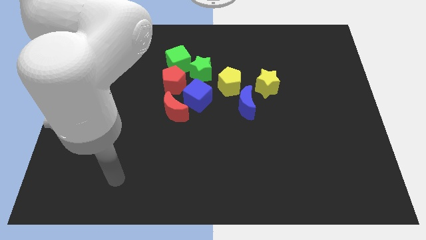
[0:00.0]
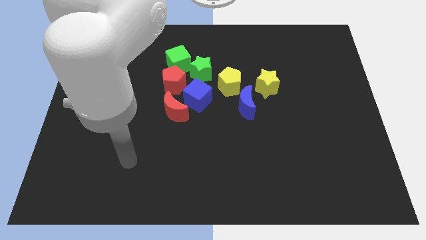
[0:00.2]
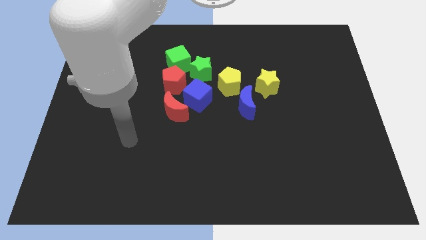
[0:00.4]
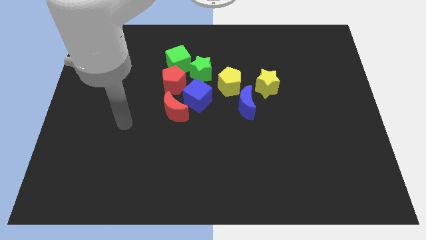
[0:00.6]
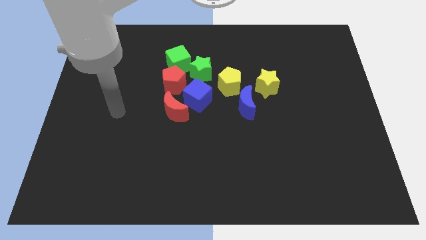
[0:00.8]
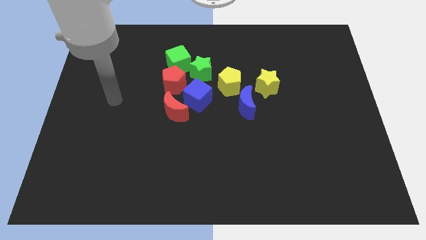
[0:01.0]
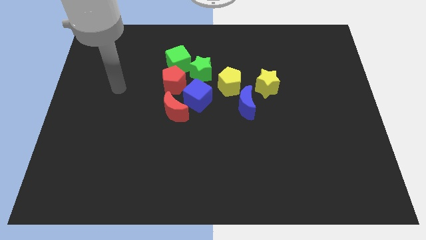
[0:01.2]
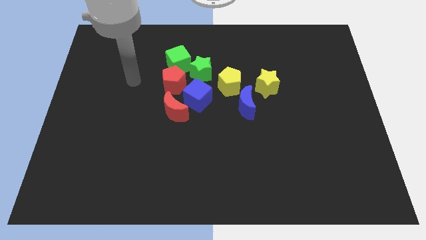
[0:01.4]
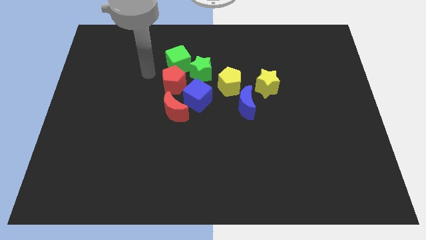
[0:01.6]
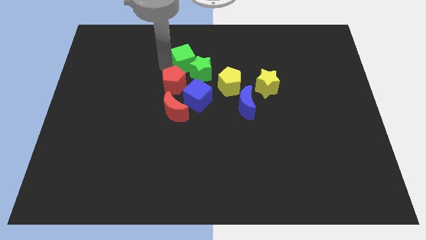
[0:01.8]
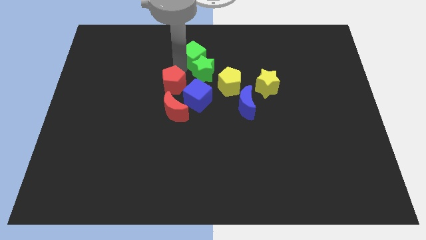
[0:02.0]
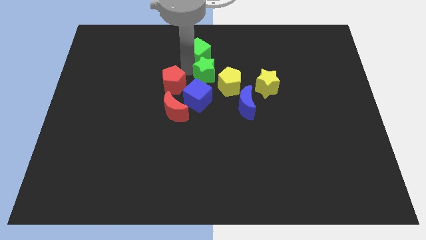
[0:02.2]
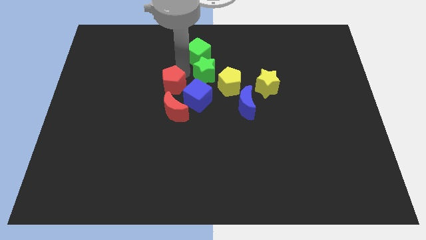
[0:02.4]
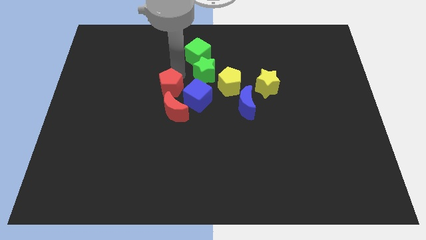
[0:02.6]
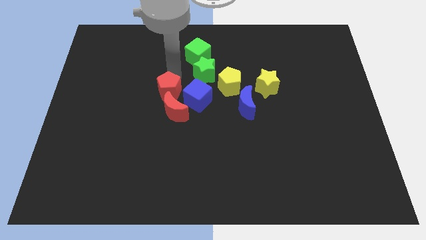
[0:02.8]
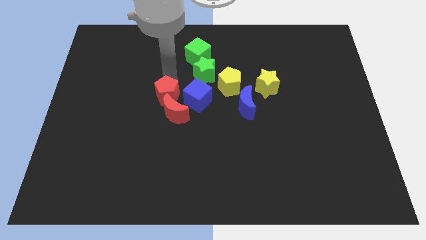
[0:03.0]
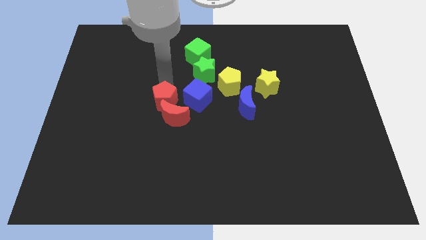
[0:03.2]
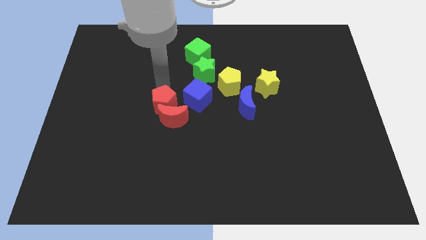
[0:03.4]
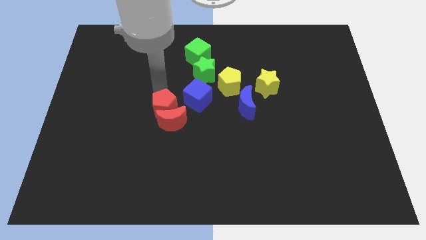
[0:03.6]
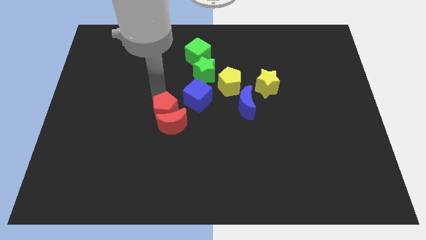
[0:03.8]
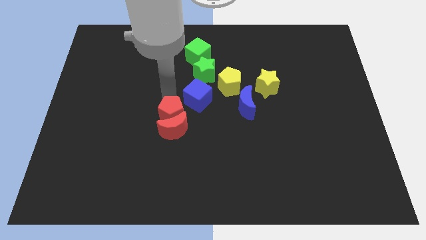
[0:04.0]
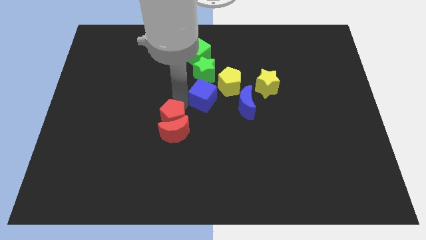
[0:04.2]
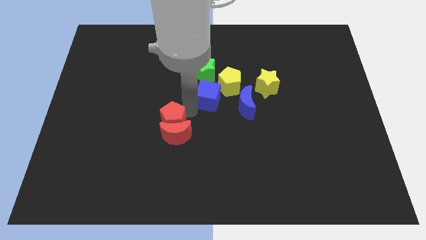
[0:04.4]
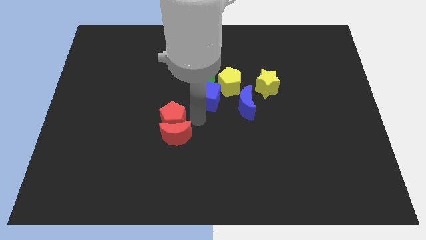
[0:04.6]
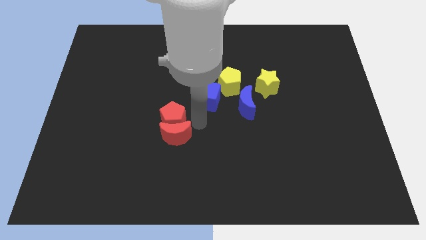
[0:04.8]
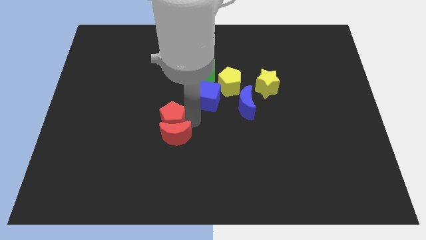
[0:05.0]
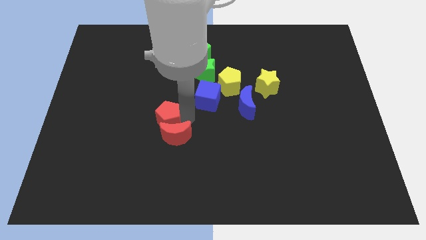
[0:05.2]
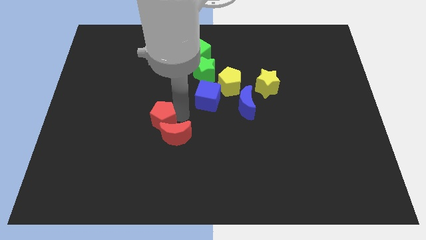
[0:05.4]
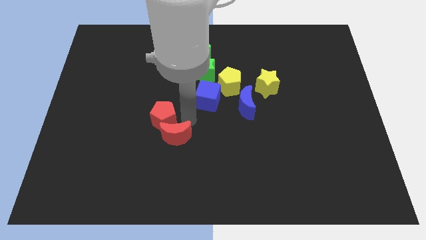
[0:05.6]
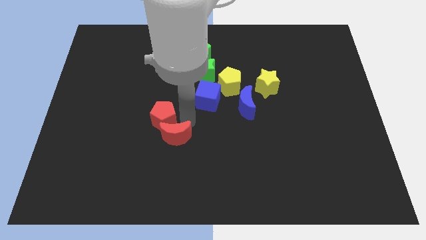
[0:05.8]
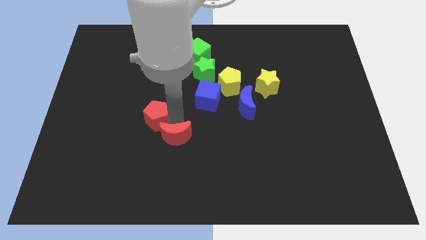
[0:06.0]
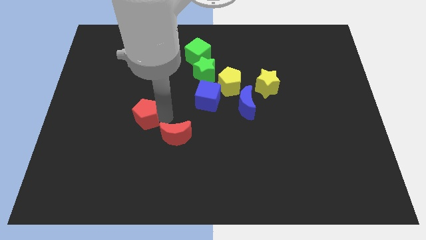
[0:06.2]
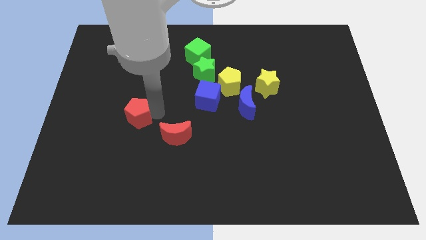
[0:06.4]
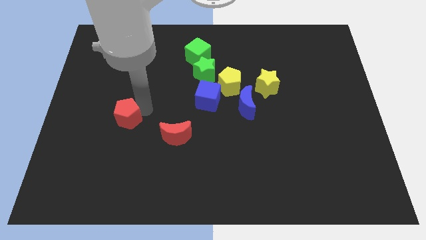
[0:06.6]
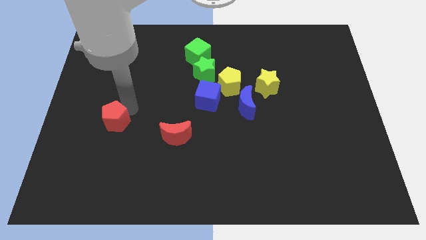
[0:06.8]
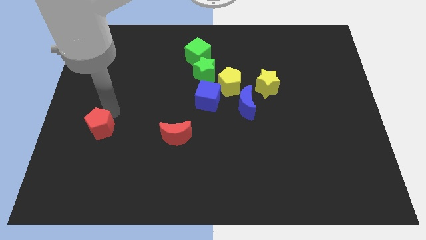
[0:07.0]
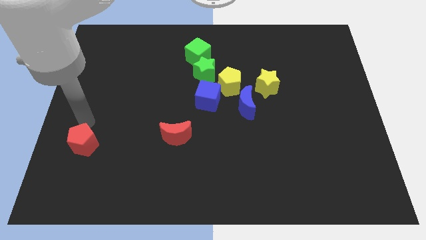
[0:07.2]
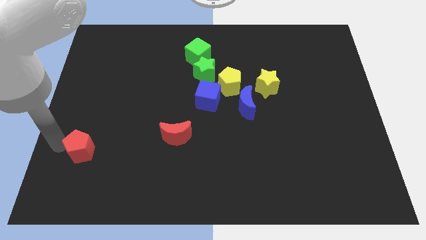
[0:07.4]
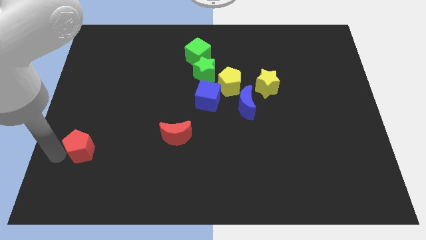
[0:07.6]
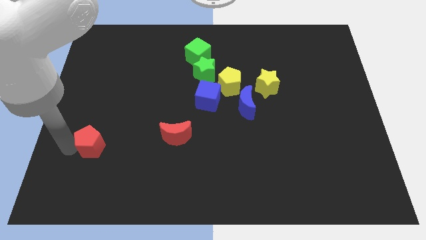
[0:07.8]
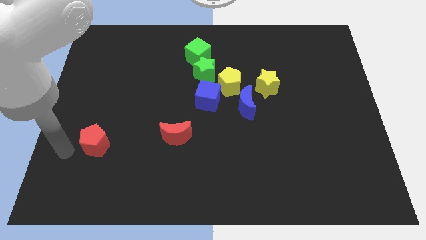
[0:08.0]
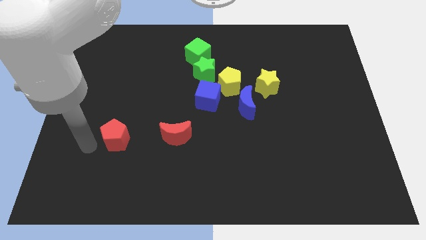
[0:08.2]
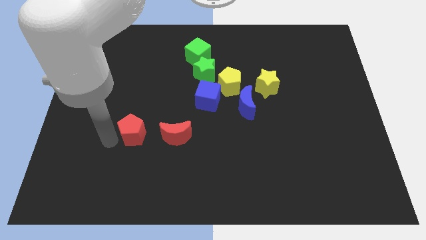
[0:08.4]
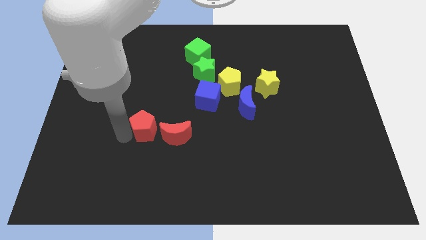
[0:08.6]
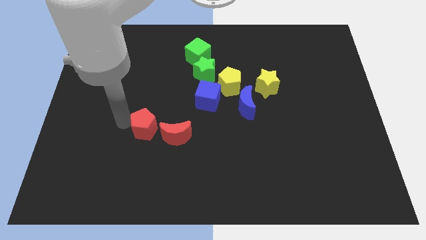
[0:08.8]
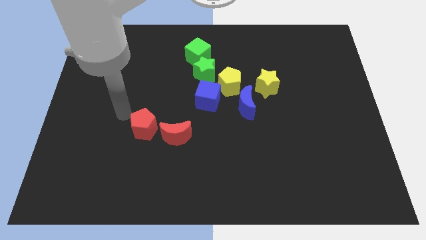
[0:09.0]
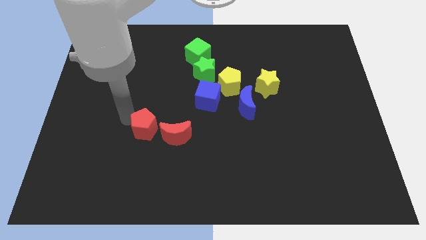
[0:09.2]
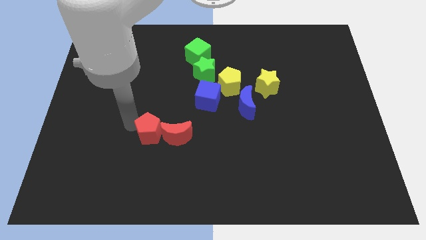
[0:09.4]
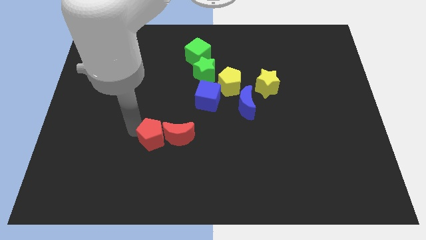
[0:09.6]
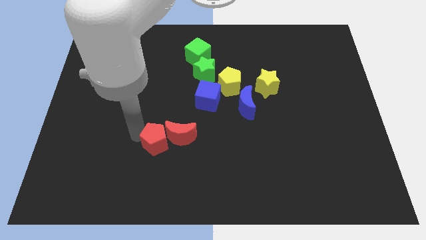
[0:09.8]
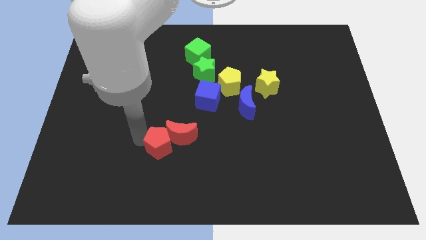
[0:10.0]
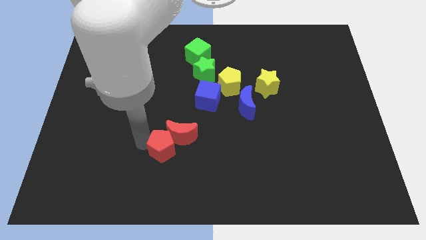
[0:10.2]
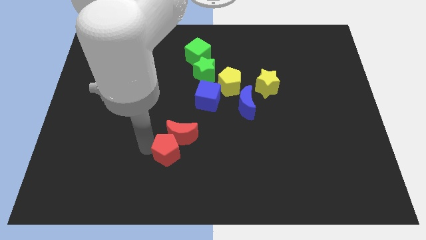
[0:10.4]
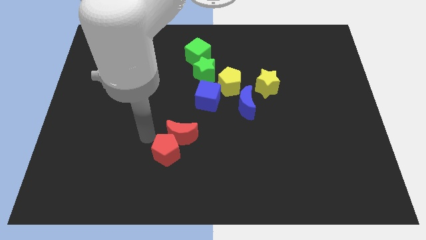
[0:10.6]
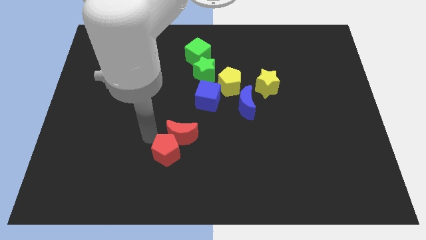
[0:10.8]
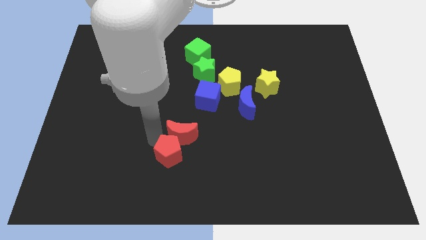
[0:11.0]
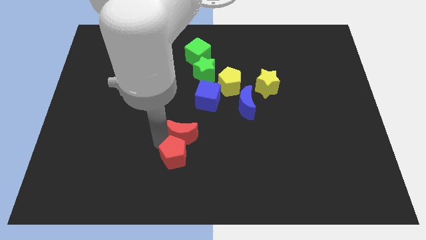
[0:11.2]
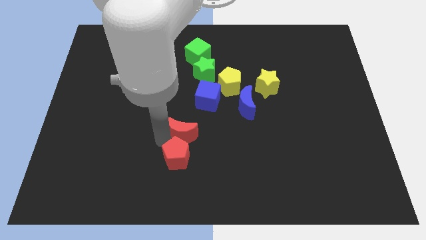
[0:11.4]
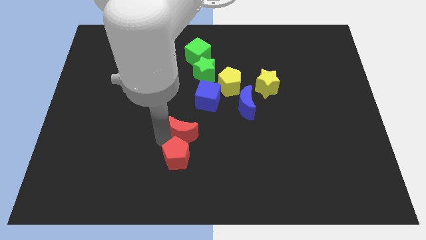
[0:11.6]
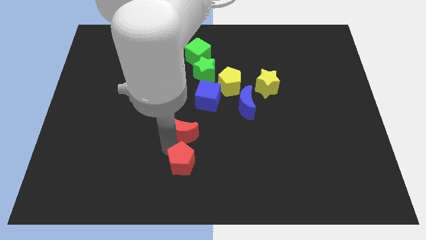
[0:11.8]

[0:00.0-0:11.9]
push the red pentagon to the bottom

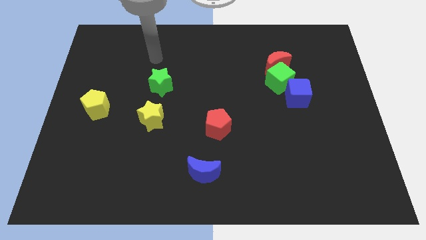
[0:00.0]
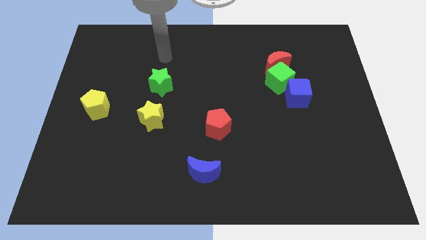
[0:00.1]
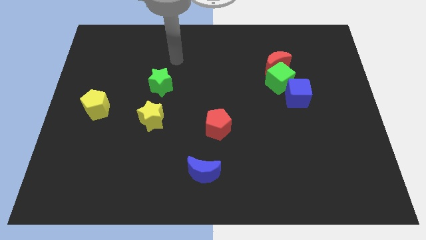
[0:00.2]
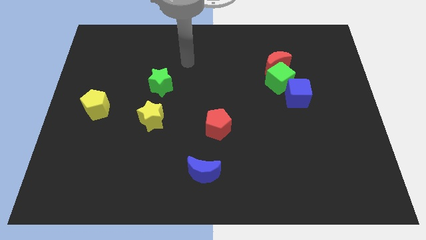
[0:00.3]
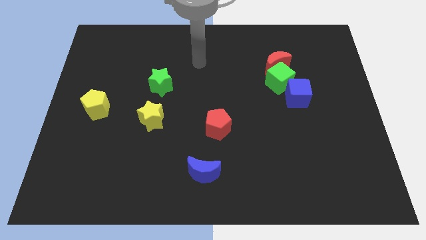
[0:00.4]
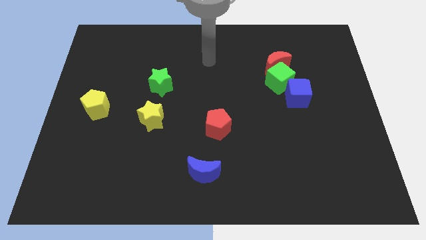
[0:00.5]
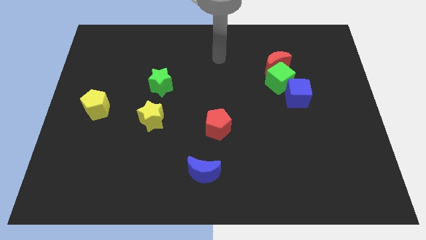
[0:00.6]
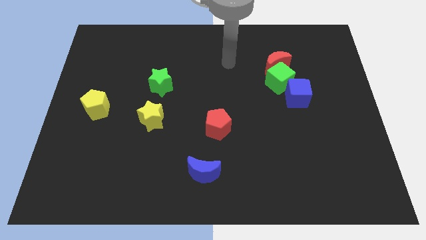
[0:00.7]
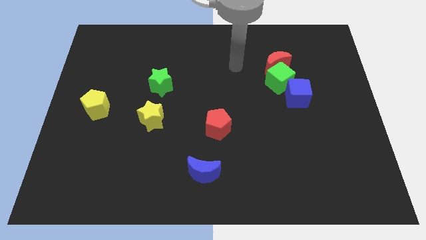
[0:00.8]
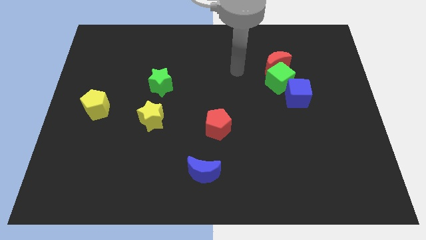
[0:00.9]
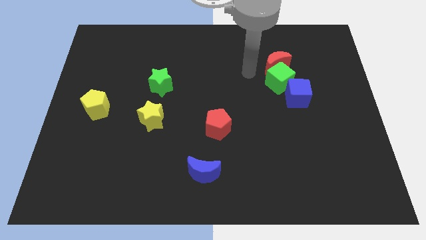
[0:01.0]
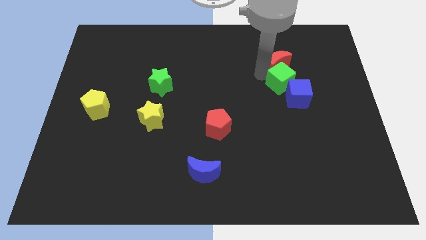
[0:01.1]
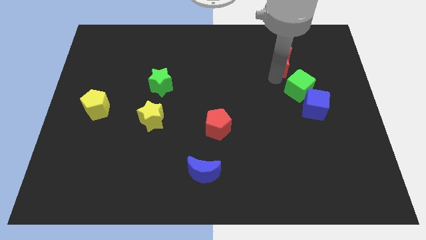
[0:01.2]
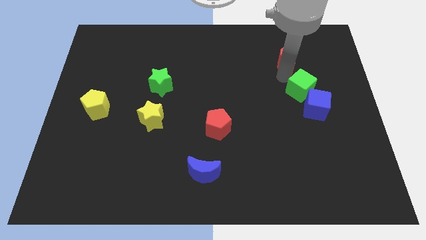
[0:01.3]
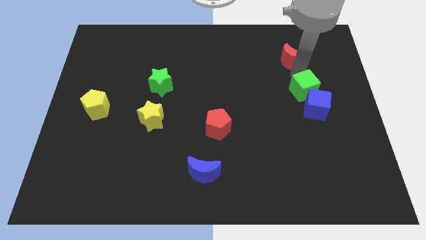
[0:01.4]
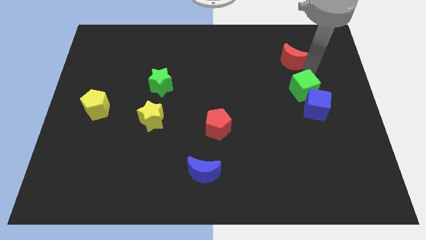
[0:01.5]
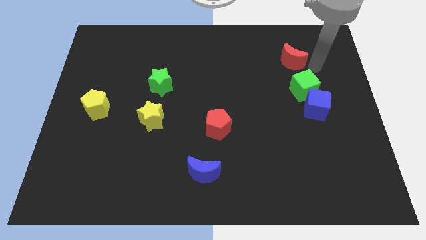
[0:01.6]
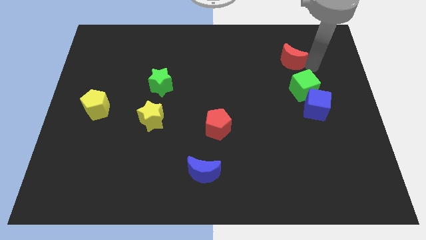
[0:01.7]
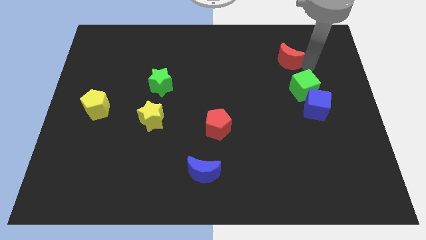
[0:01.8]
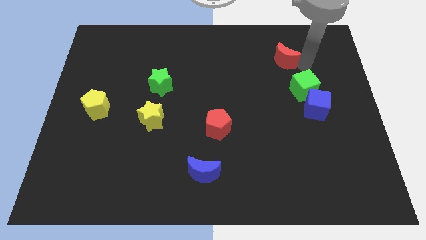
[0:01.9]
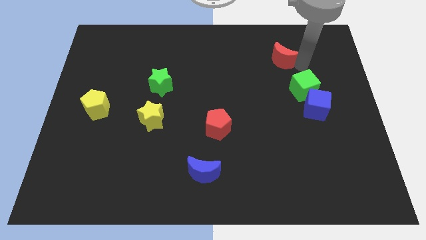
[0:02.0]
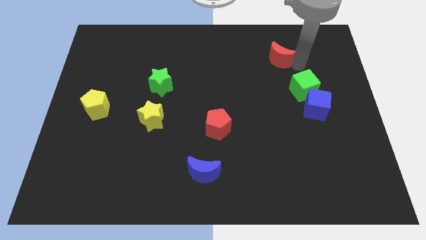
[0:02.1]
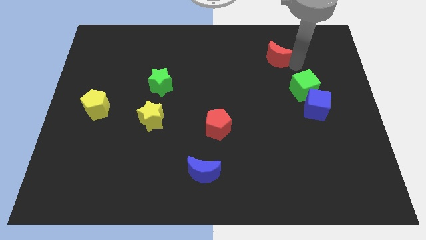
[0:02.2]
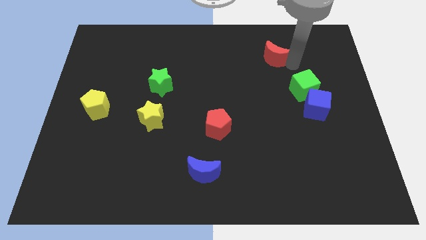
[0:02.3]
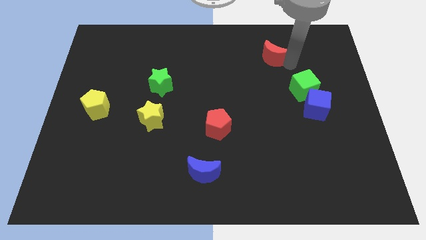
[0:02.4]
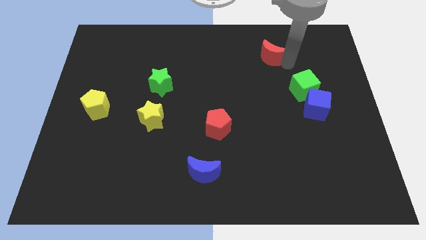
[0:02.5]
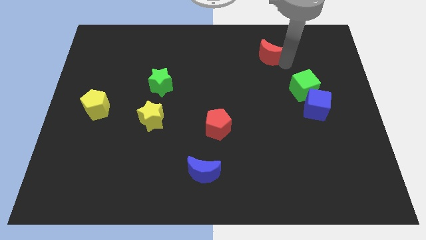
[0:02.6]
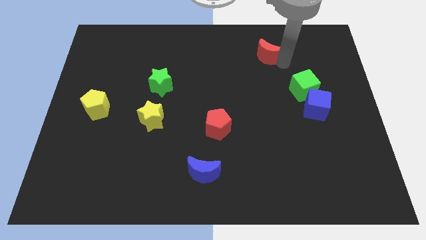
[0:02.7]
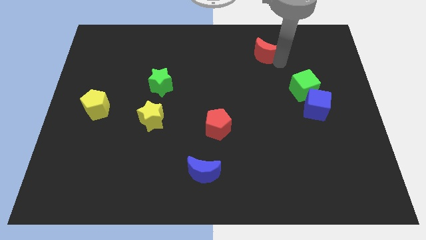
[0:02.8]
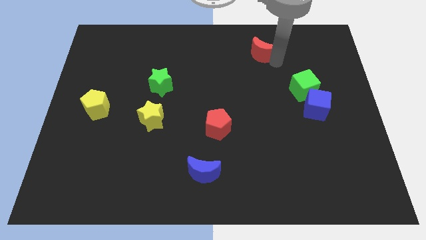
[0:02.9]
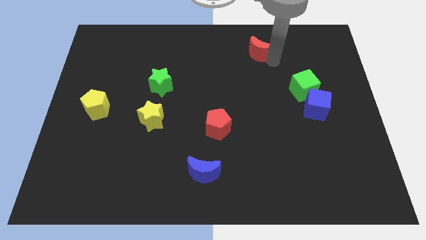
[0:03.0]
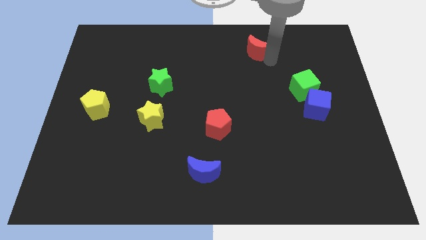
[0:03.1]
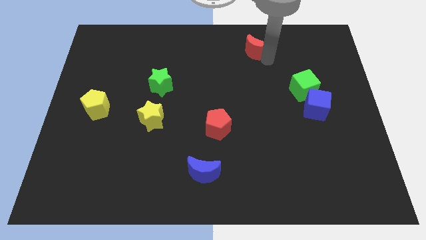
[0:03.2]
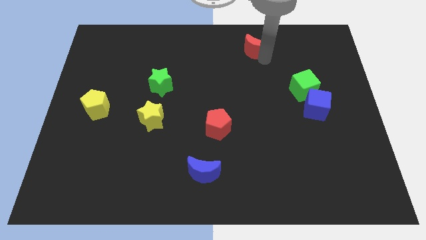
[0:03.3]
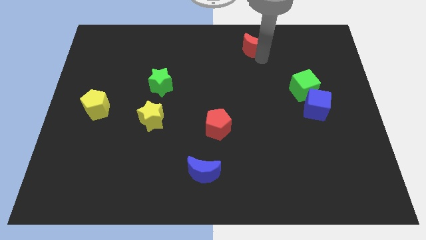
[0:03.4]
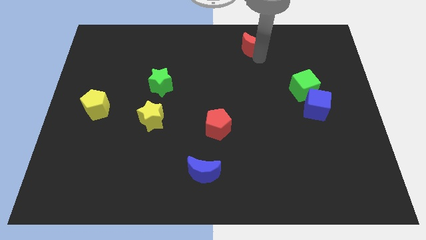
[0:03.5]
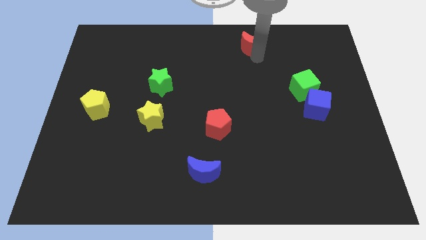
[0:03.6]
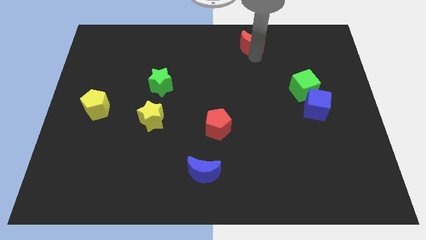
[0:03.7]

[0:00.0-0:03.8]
push the red moon to the top side
